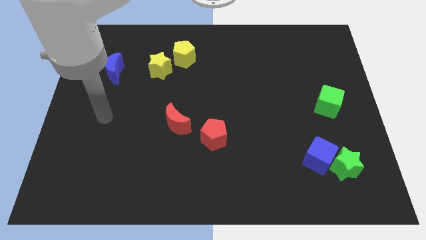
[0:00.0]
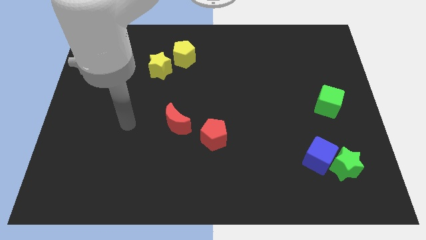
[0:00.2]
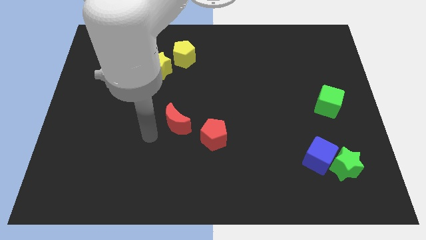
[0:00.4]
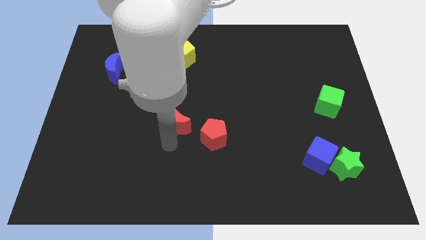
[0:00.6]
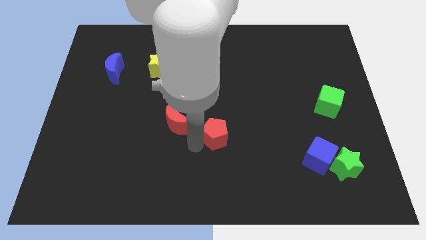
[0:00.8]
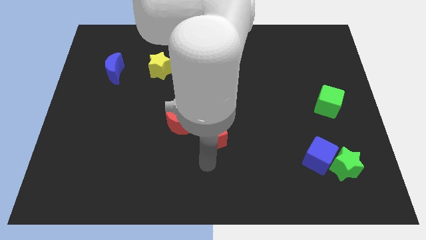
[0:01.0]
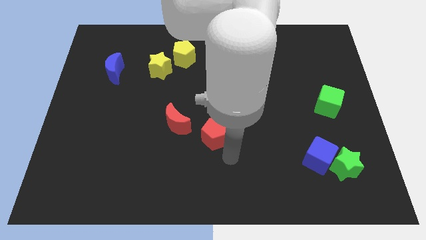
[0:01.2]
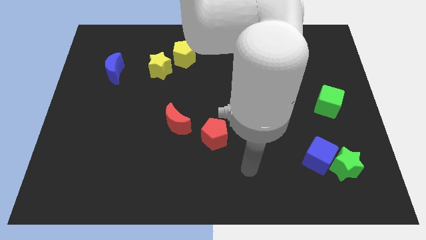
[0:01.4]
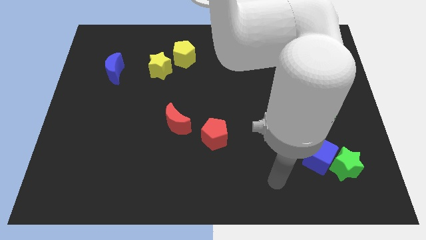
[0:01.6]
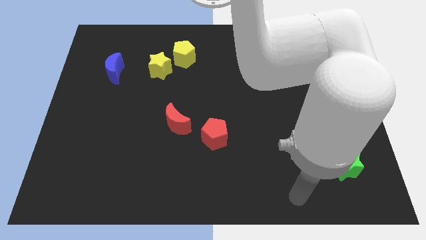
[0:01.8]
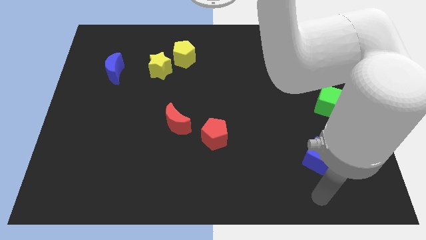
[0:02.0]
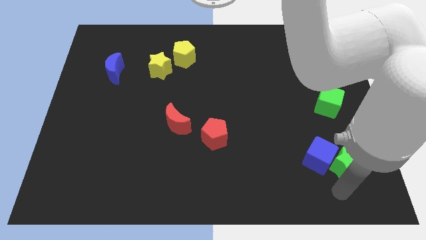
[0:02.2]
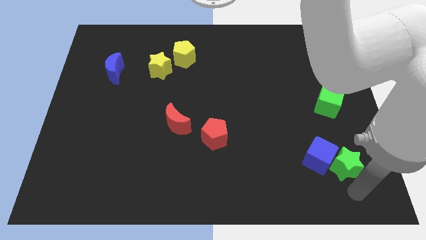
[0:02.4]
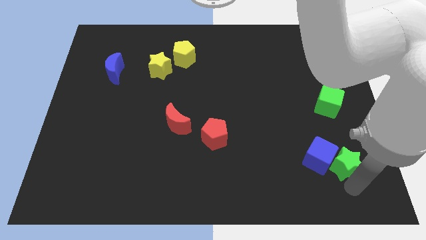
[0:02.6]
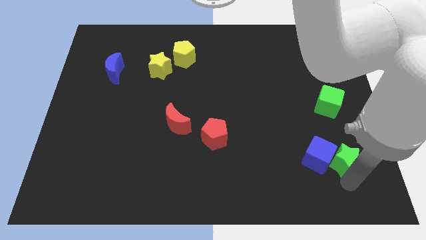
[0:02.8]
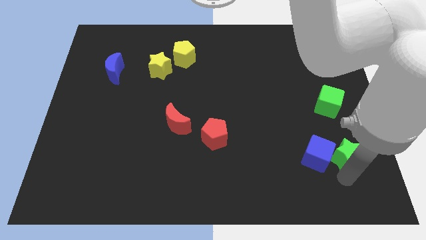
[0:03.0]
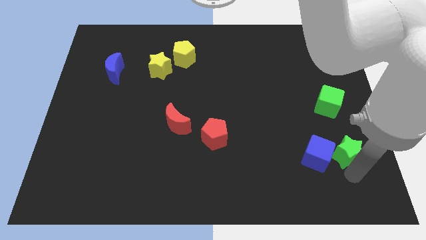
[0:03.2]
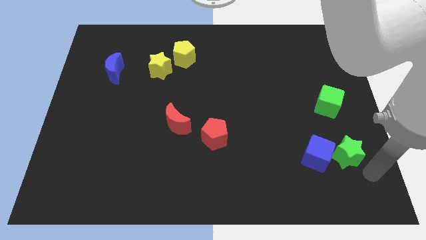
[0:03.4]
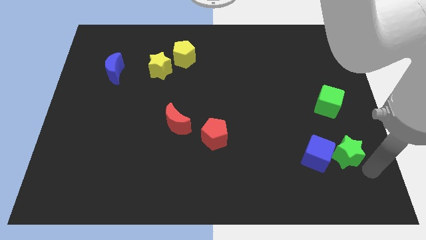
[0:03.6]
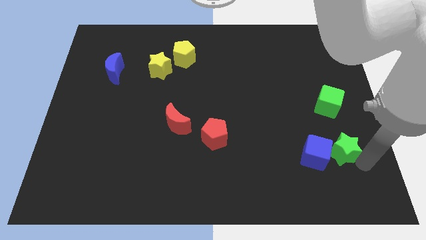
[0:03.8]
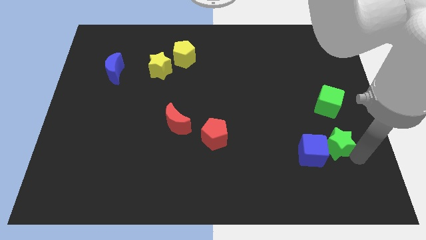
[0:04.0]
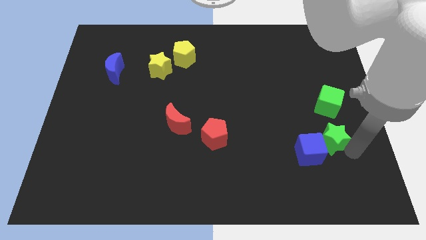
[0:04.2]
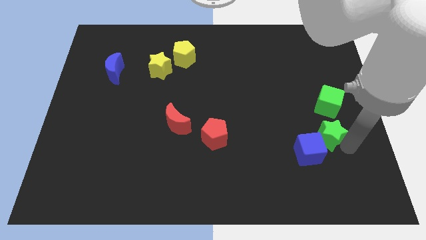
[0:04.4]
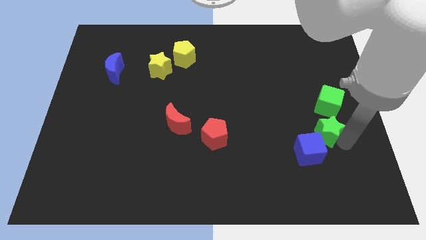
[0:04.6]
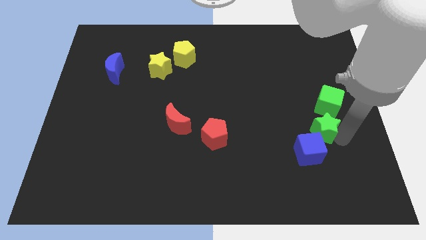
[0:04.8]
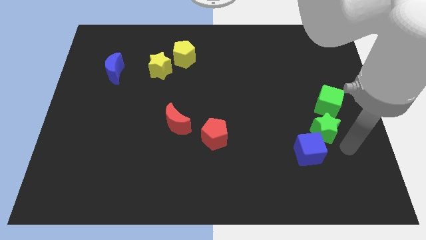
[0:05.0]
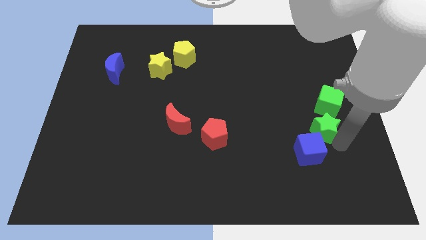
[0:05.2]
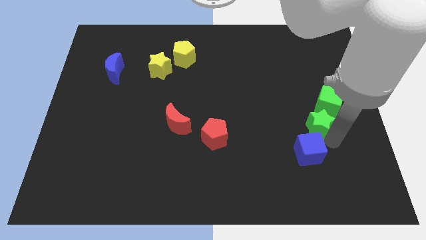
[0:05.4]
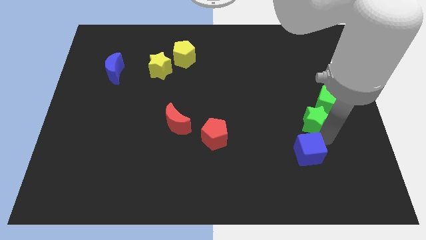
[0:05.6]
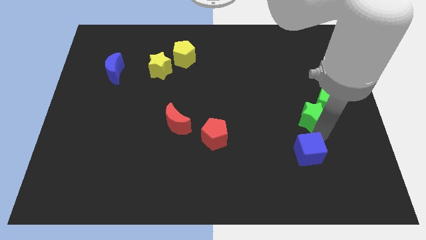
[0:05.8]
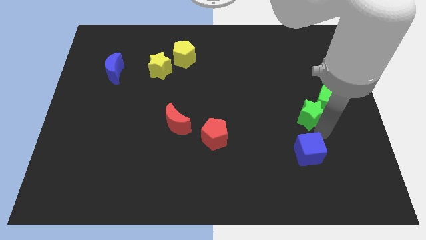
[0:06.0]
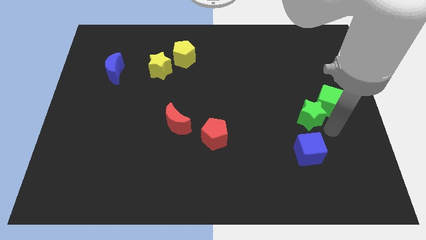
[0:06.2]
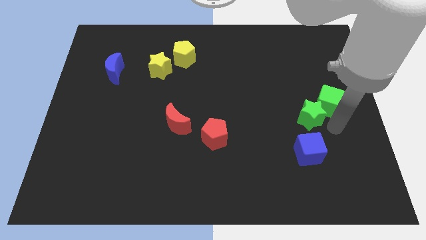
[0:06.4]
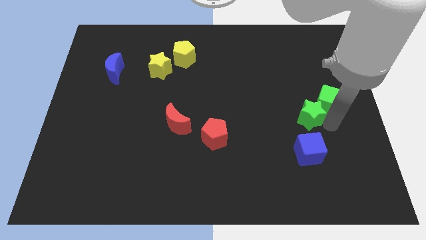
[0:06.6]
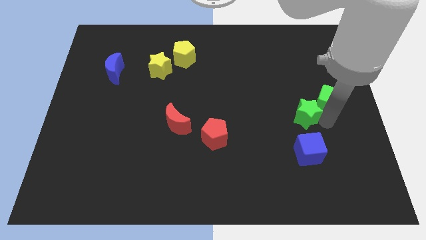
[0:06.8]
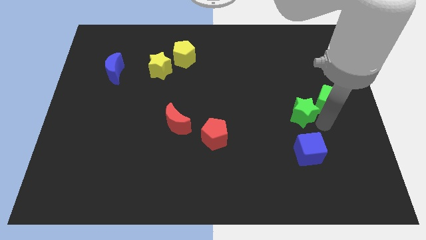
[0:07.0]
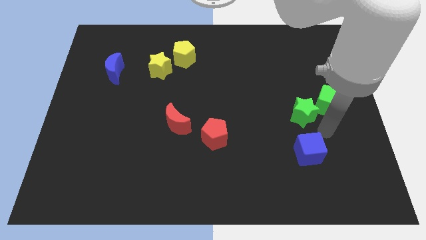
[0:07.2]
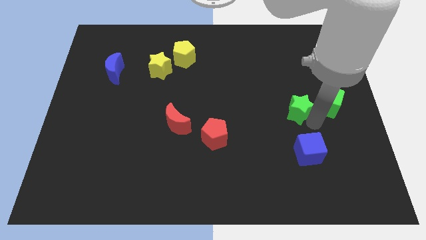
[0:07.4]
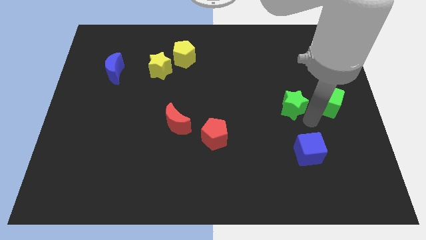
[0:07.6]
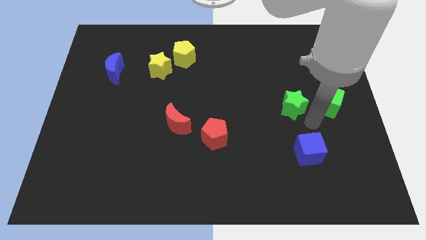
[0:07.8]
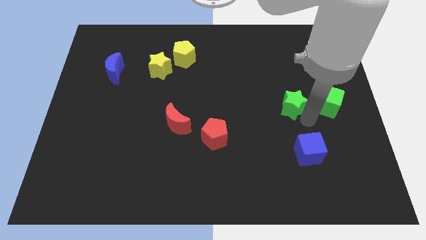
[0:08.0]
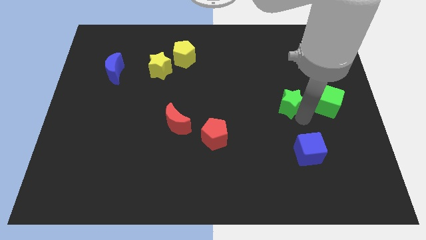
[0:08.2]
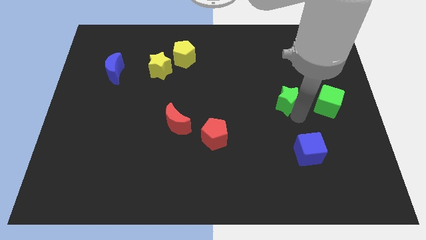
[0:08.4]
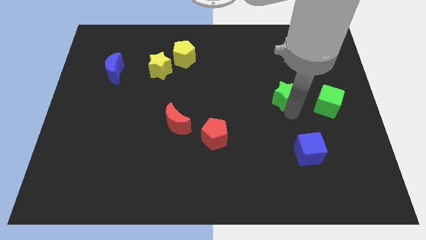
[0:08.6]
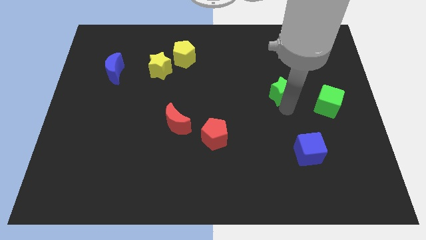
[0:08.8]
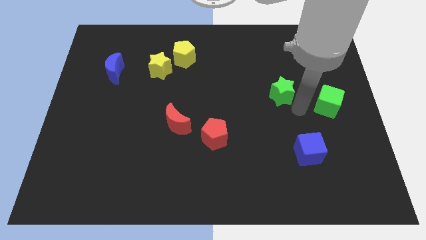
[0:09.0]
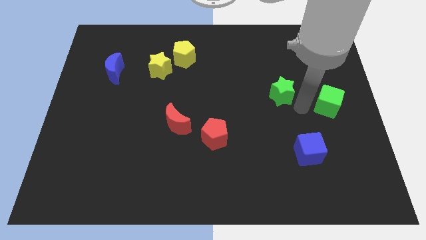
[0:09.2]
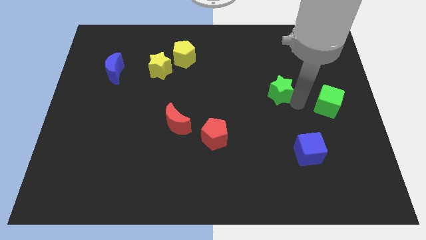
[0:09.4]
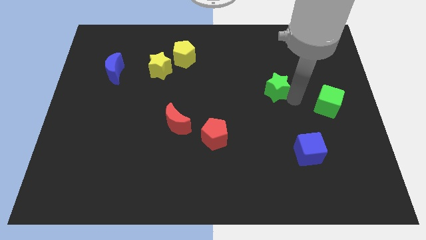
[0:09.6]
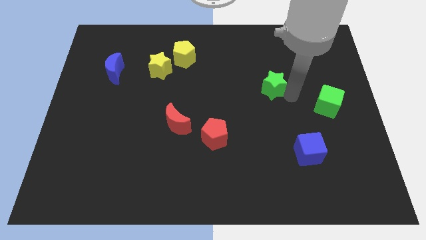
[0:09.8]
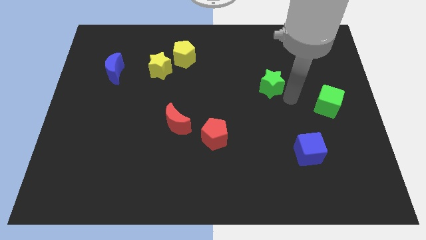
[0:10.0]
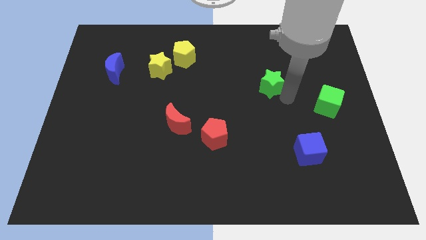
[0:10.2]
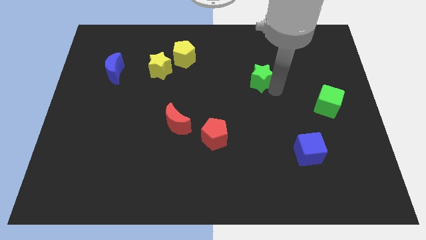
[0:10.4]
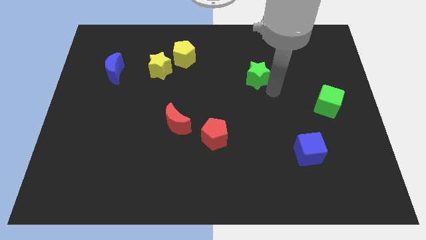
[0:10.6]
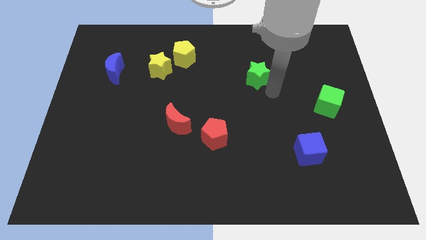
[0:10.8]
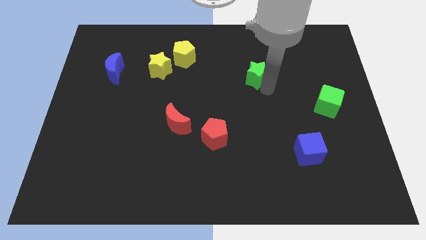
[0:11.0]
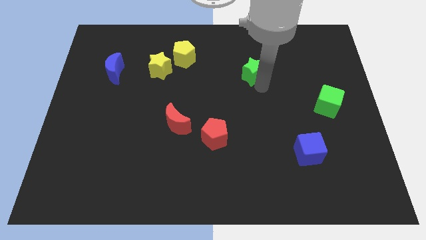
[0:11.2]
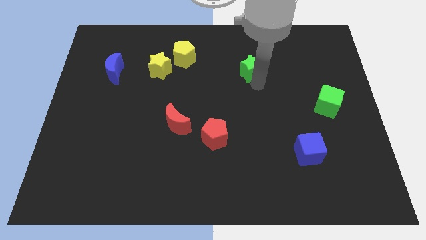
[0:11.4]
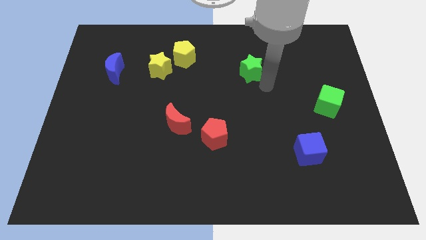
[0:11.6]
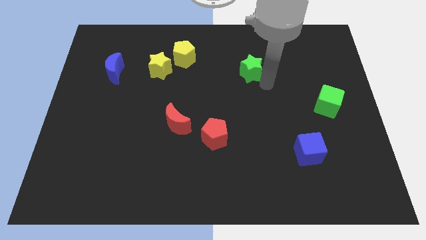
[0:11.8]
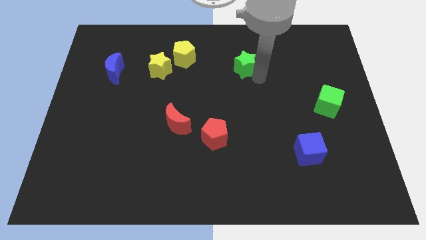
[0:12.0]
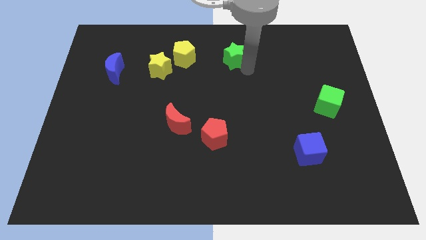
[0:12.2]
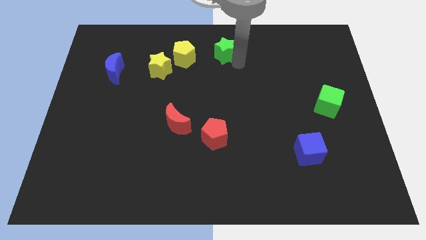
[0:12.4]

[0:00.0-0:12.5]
put the green star to the towards your base
